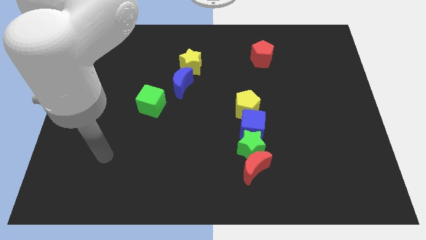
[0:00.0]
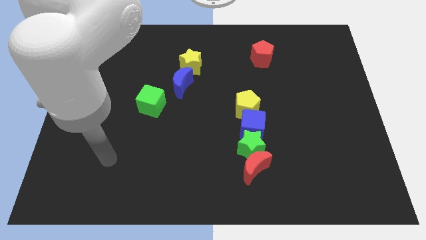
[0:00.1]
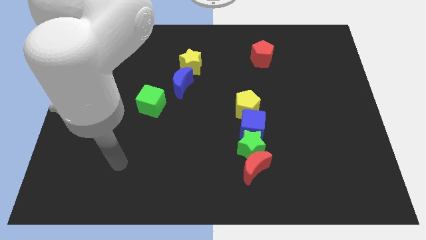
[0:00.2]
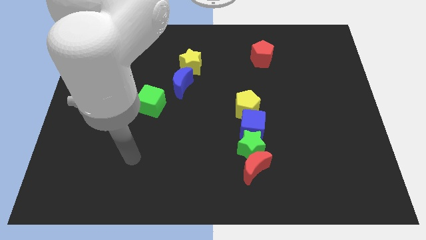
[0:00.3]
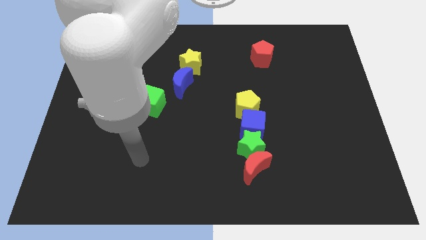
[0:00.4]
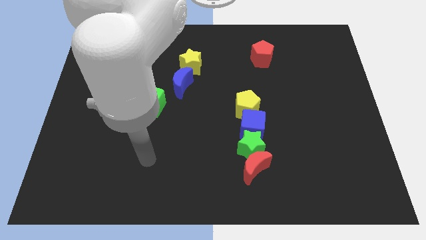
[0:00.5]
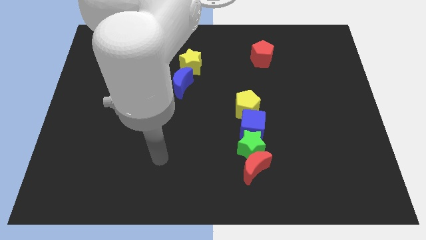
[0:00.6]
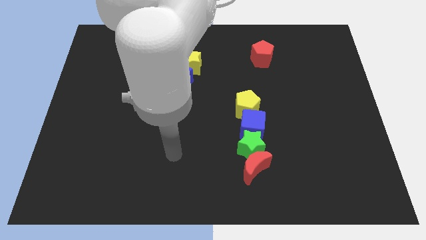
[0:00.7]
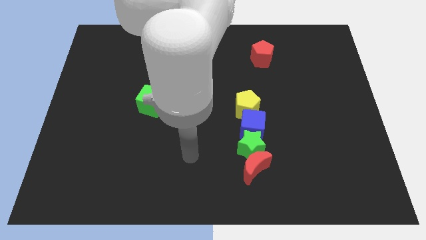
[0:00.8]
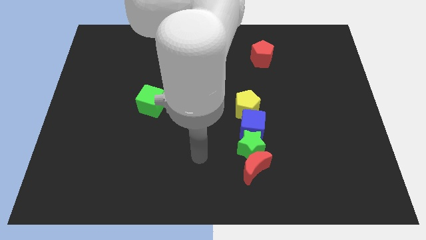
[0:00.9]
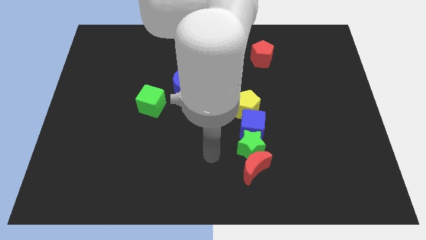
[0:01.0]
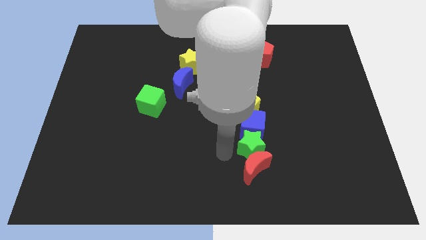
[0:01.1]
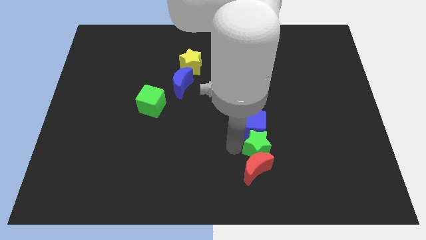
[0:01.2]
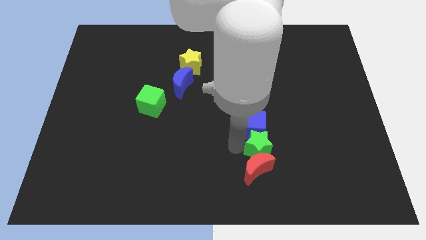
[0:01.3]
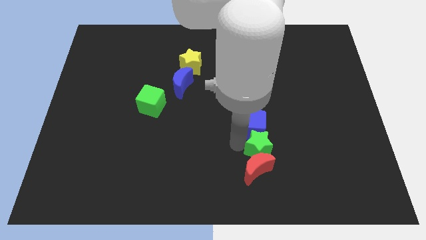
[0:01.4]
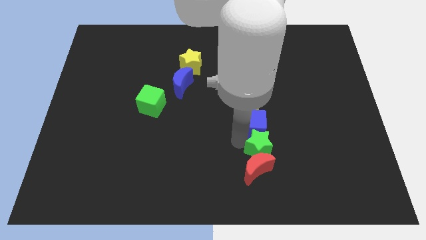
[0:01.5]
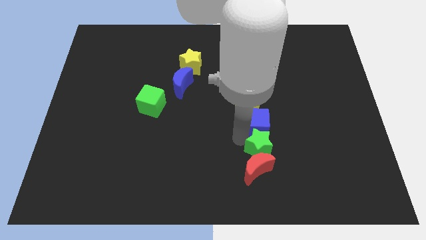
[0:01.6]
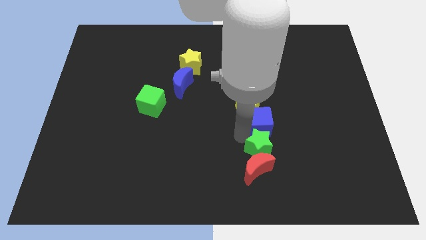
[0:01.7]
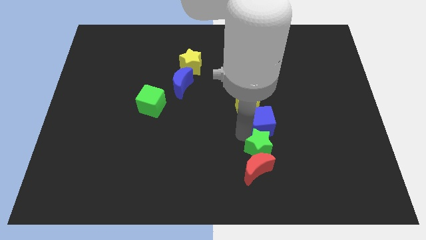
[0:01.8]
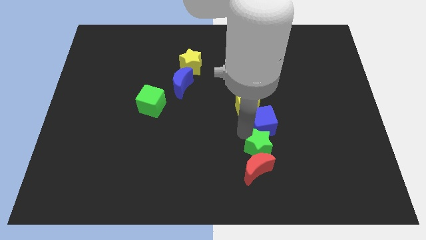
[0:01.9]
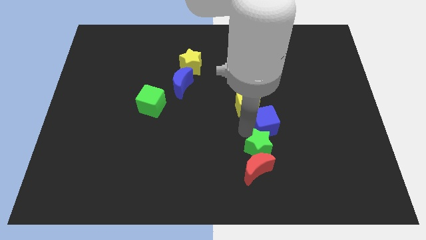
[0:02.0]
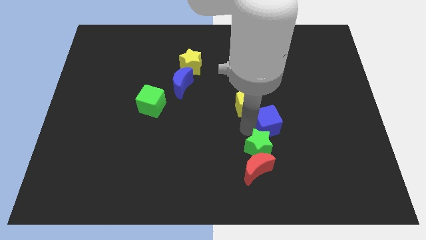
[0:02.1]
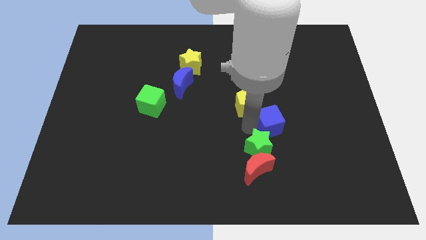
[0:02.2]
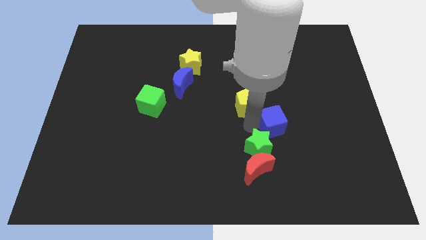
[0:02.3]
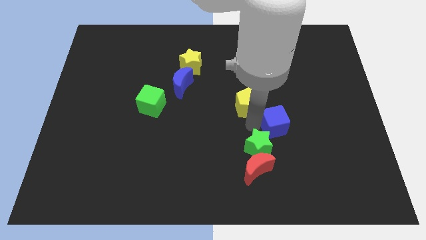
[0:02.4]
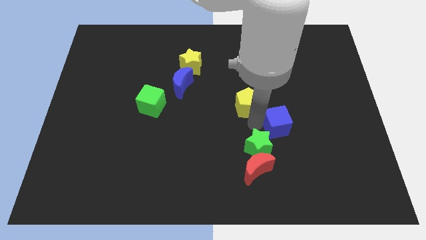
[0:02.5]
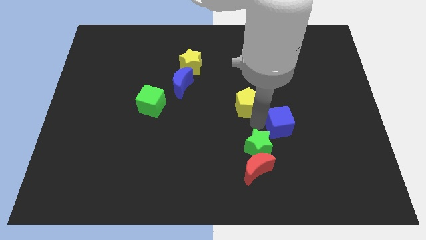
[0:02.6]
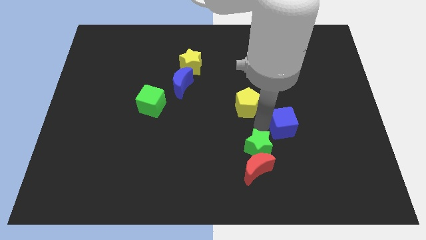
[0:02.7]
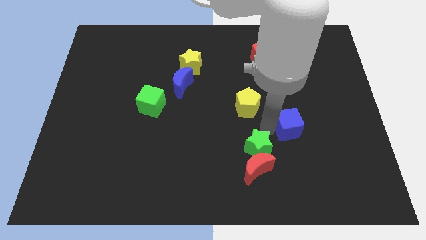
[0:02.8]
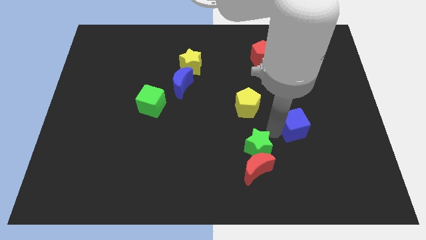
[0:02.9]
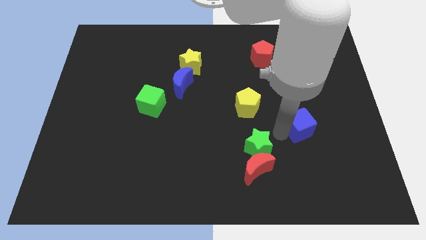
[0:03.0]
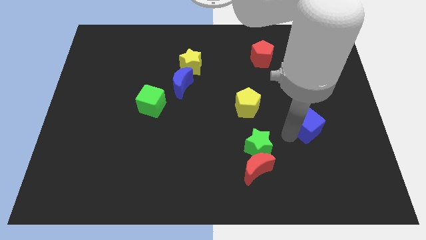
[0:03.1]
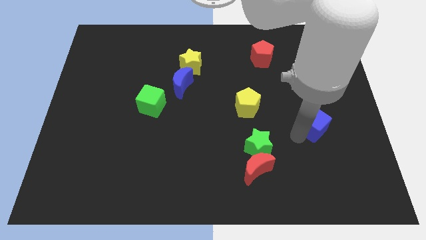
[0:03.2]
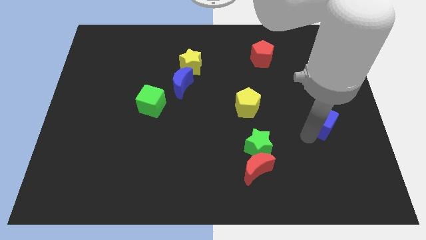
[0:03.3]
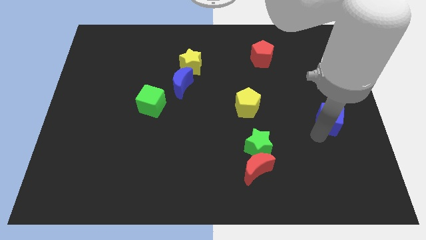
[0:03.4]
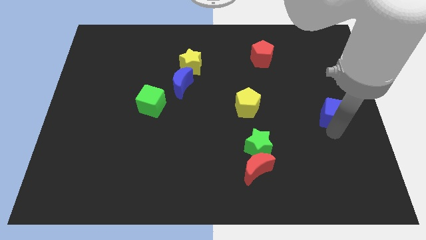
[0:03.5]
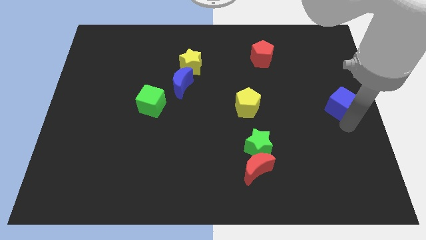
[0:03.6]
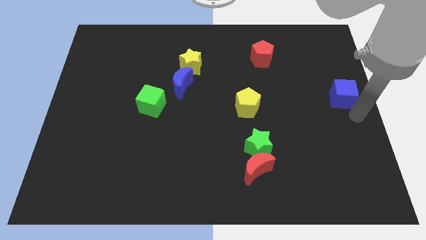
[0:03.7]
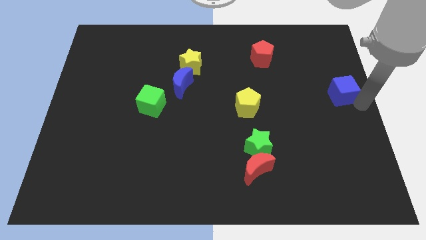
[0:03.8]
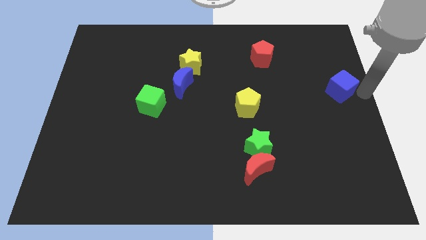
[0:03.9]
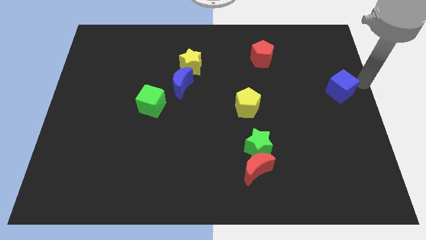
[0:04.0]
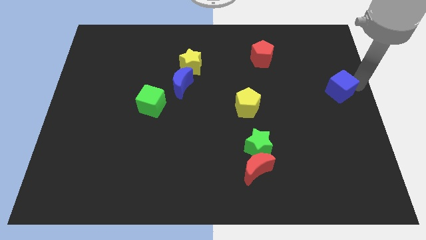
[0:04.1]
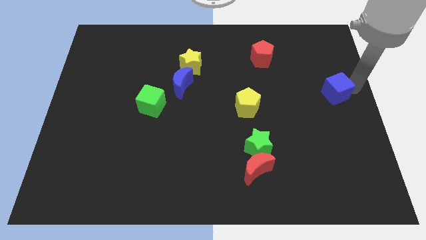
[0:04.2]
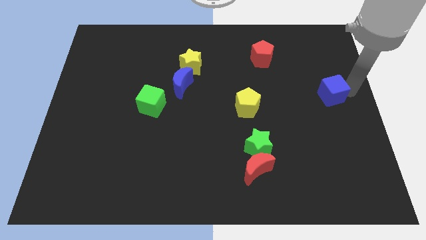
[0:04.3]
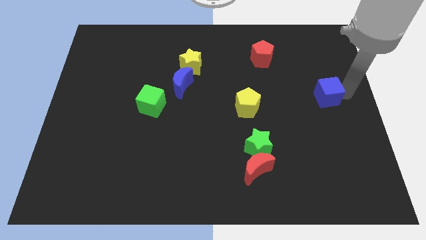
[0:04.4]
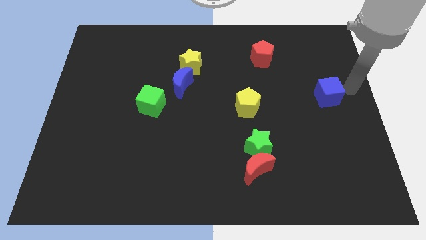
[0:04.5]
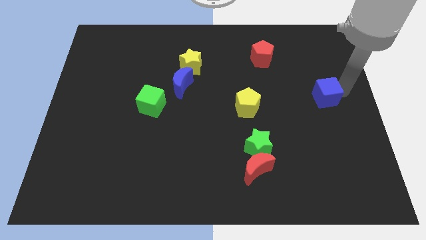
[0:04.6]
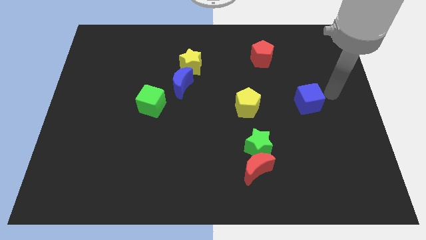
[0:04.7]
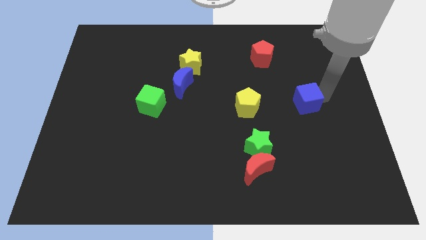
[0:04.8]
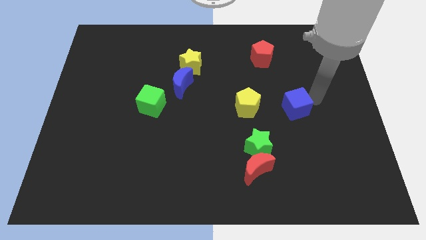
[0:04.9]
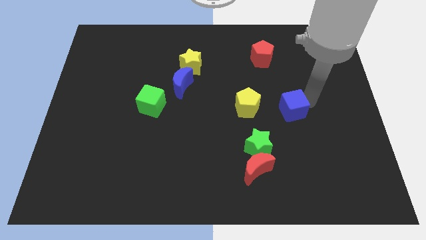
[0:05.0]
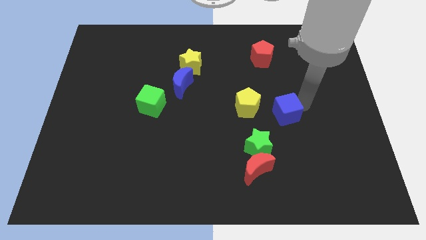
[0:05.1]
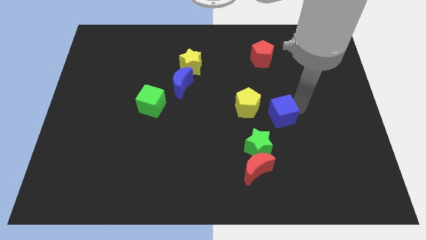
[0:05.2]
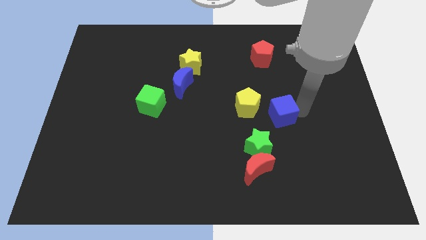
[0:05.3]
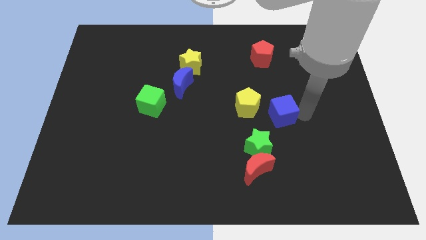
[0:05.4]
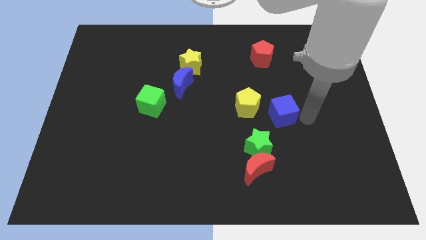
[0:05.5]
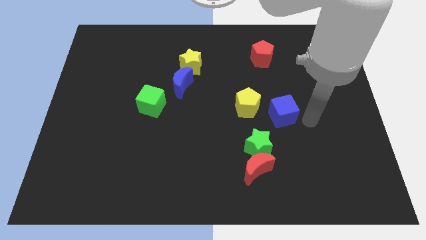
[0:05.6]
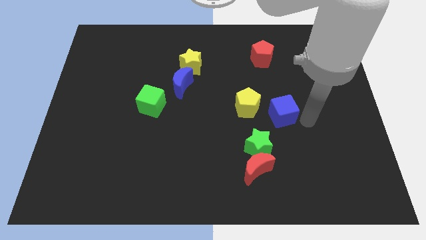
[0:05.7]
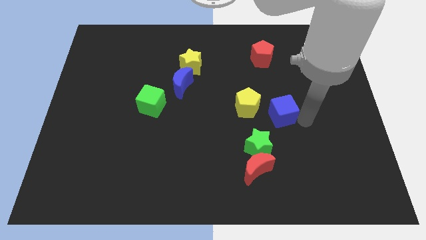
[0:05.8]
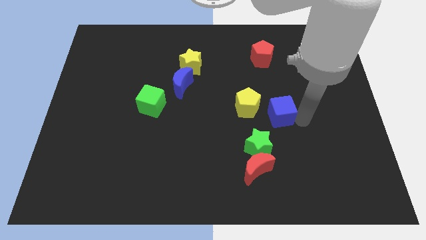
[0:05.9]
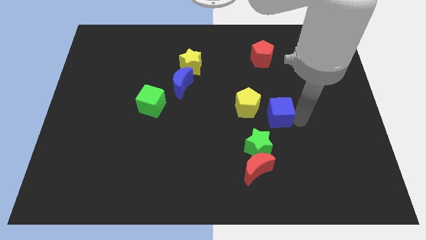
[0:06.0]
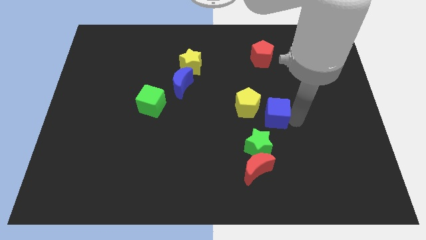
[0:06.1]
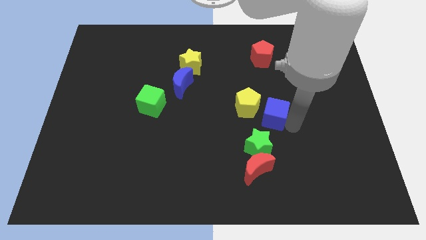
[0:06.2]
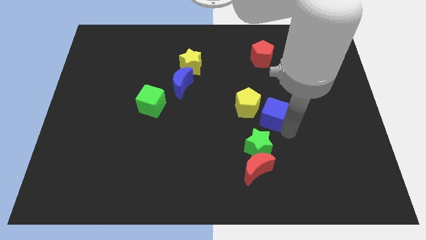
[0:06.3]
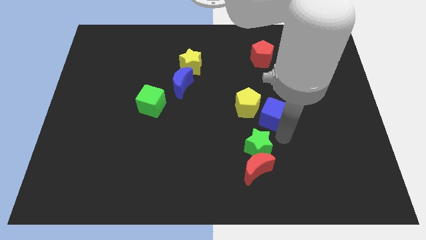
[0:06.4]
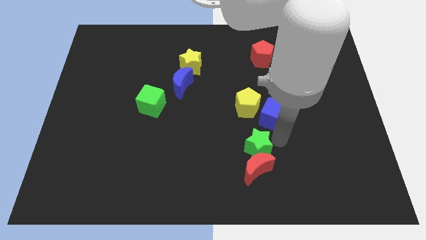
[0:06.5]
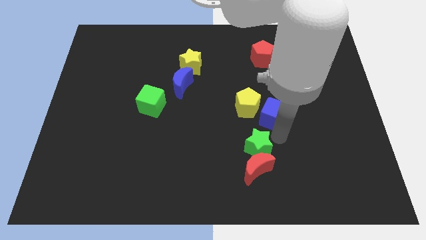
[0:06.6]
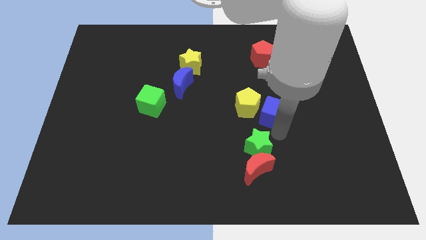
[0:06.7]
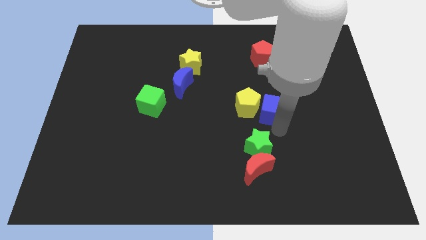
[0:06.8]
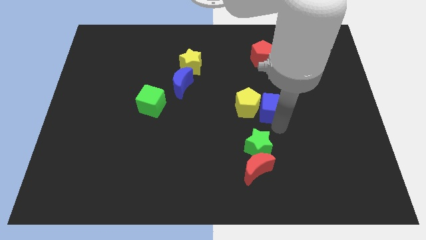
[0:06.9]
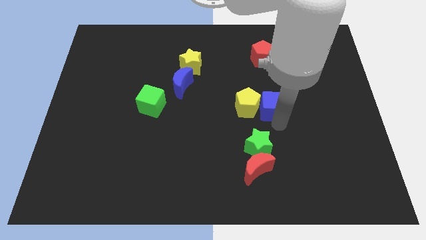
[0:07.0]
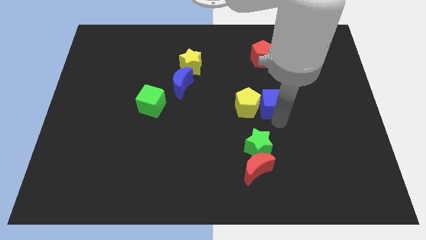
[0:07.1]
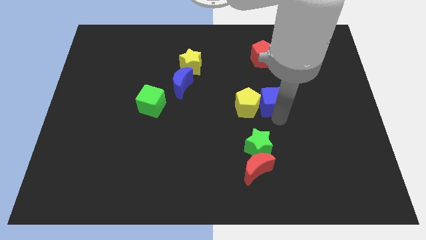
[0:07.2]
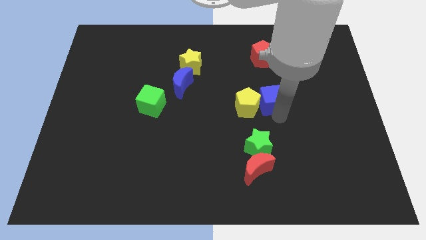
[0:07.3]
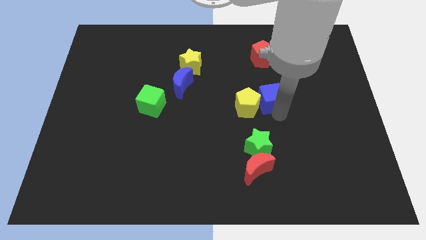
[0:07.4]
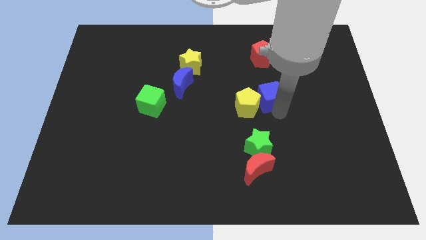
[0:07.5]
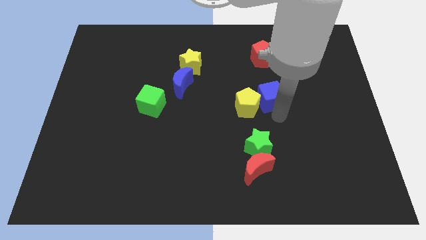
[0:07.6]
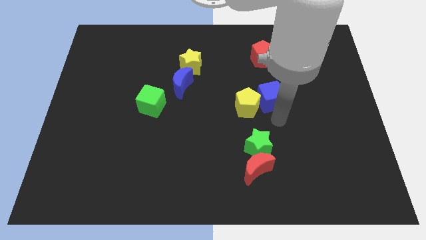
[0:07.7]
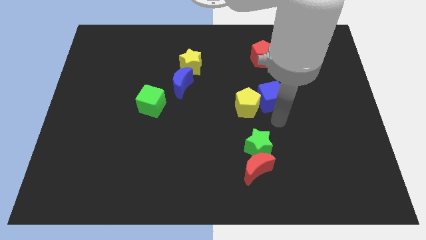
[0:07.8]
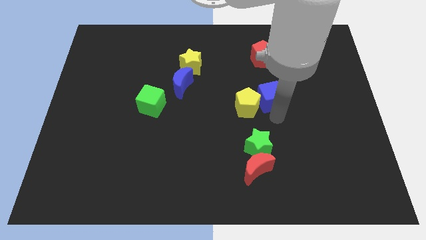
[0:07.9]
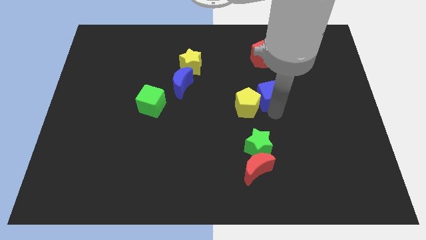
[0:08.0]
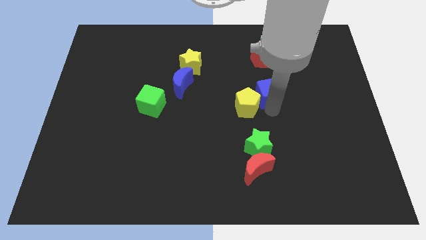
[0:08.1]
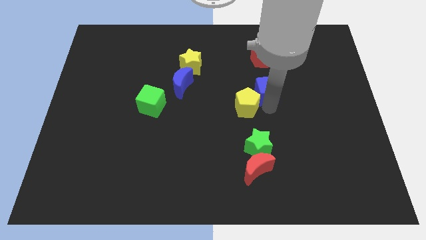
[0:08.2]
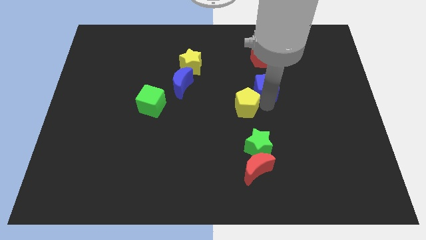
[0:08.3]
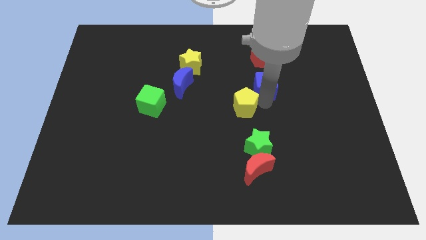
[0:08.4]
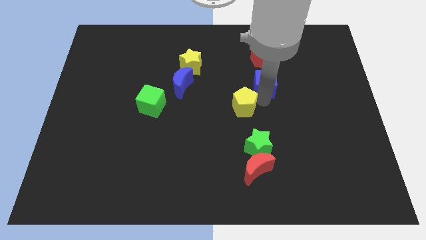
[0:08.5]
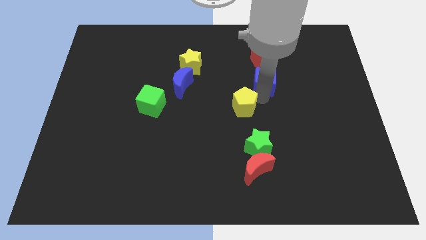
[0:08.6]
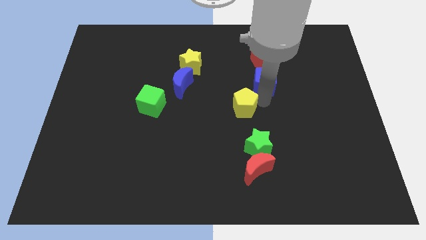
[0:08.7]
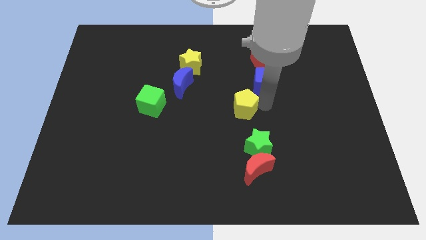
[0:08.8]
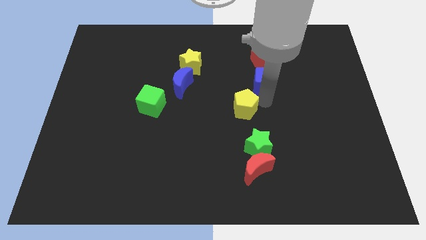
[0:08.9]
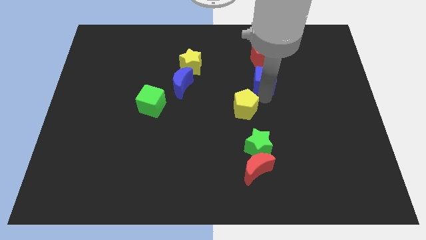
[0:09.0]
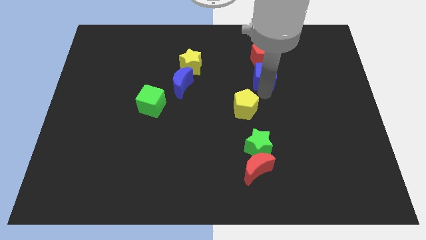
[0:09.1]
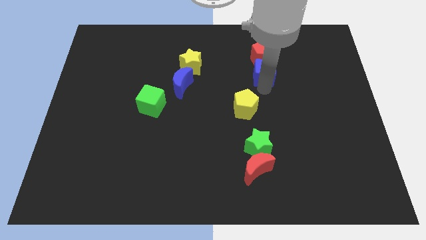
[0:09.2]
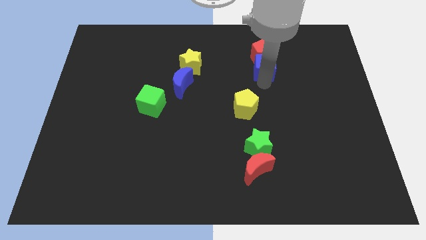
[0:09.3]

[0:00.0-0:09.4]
put the blue cube close to the red pentagon
